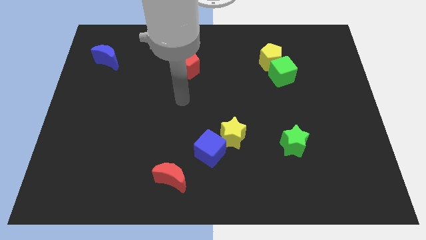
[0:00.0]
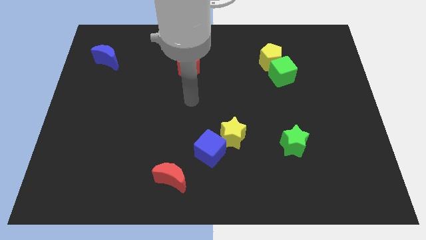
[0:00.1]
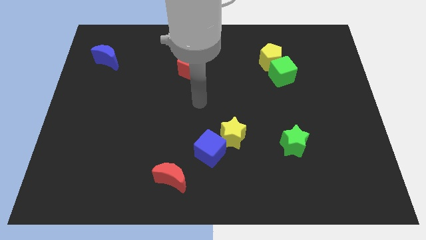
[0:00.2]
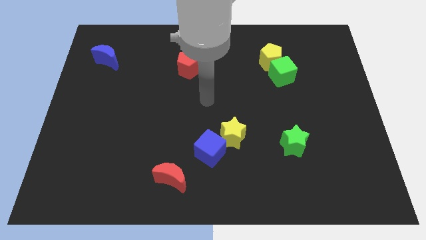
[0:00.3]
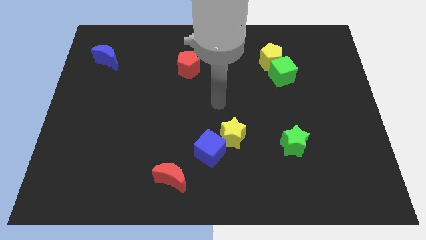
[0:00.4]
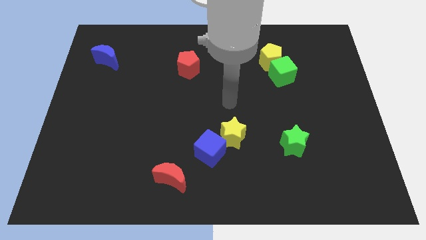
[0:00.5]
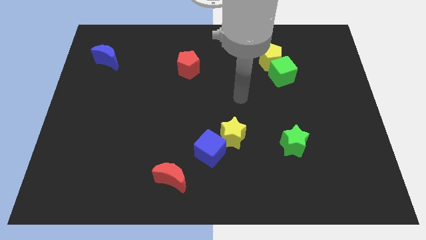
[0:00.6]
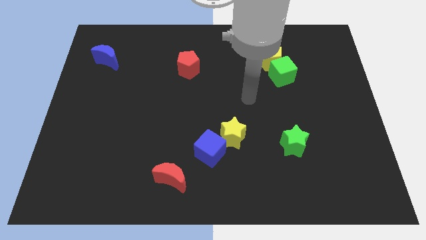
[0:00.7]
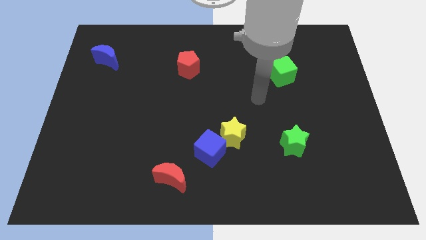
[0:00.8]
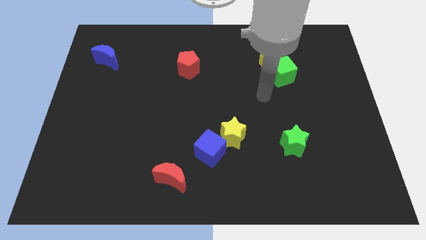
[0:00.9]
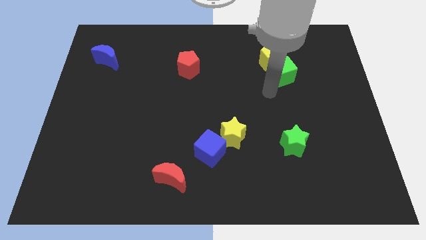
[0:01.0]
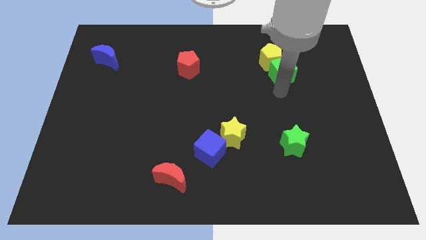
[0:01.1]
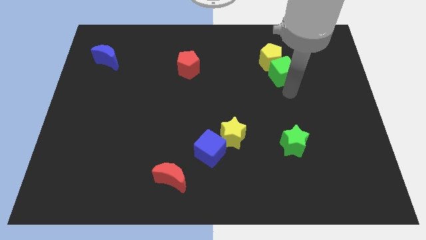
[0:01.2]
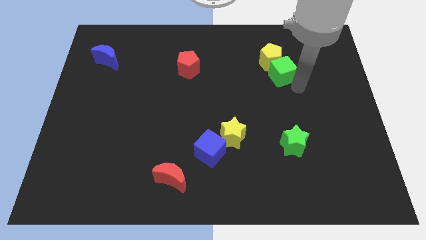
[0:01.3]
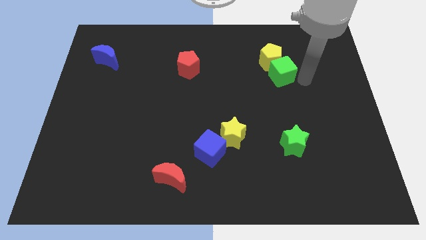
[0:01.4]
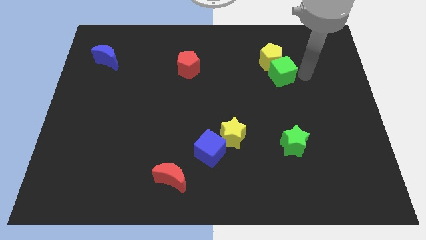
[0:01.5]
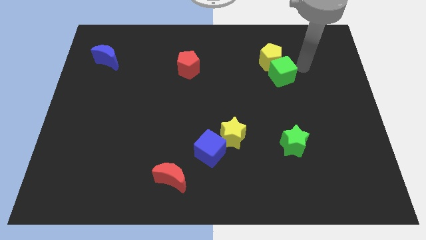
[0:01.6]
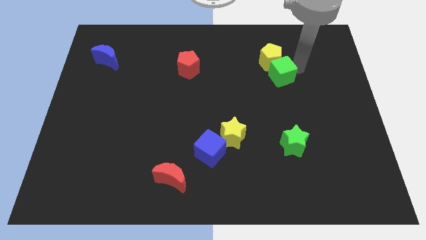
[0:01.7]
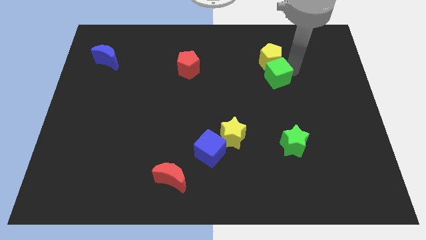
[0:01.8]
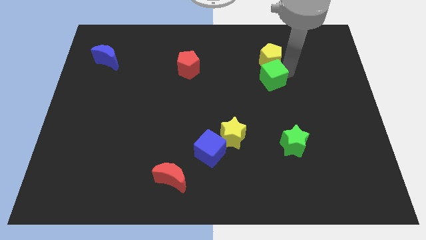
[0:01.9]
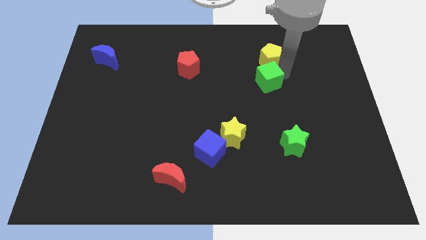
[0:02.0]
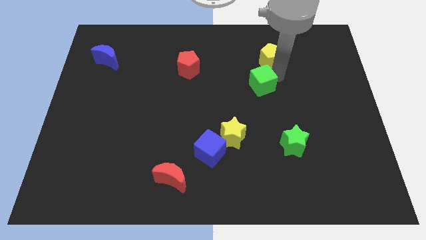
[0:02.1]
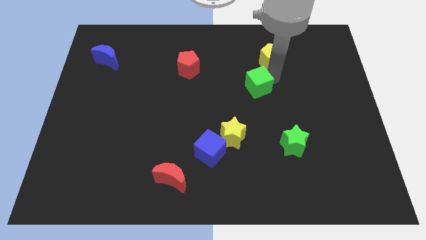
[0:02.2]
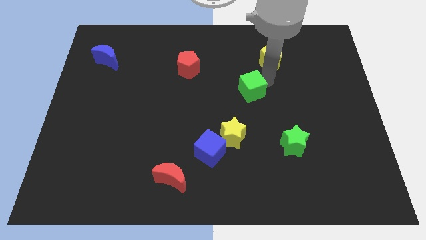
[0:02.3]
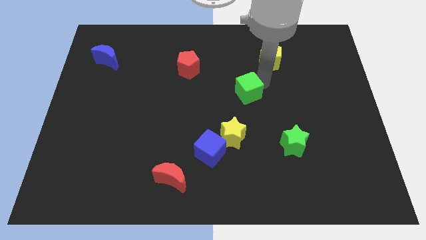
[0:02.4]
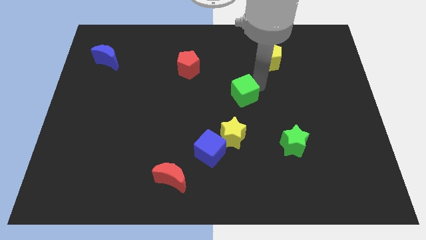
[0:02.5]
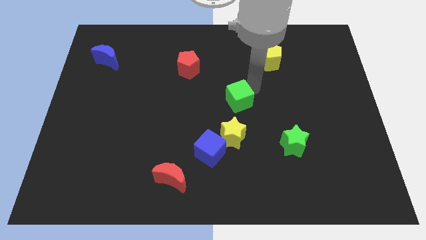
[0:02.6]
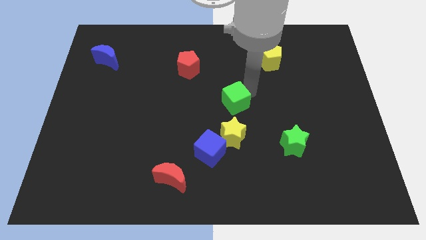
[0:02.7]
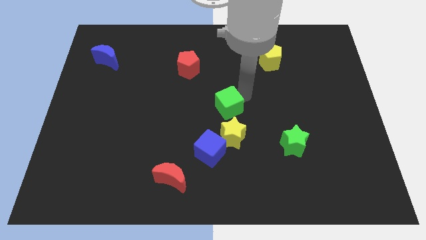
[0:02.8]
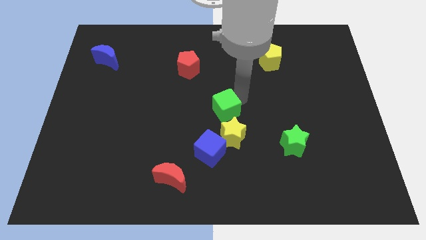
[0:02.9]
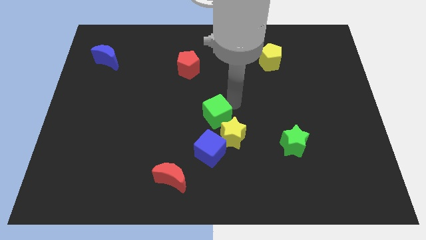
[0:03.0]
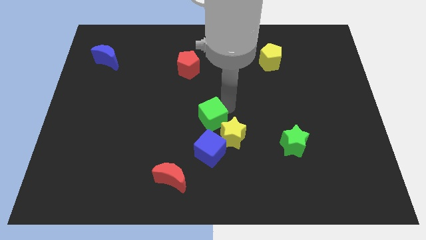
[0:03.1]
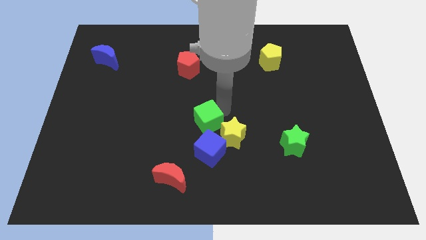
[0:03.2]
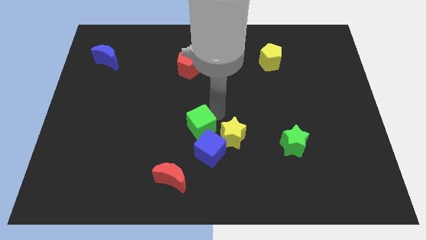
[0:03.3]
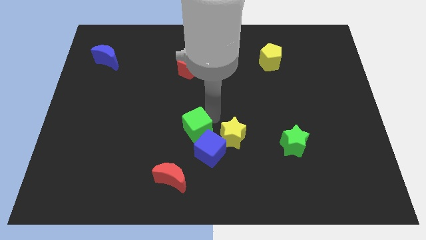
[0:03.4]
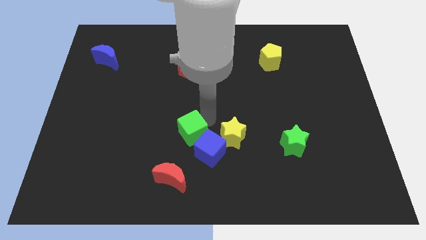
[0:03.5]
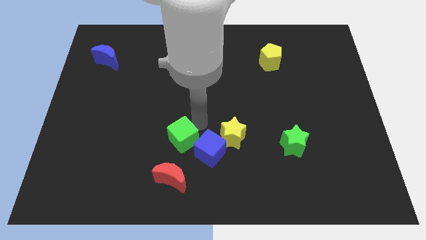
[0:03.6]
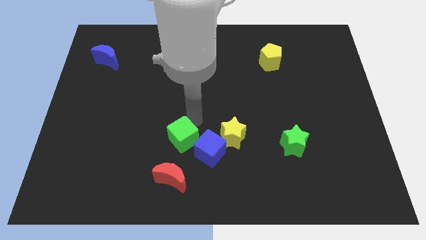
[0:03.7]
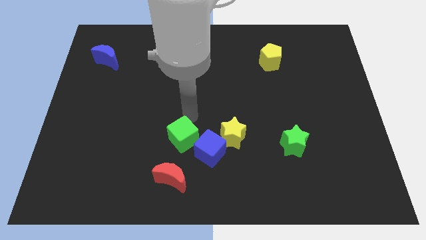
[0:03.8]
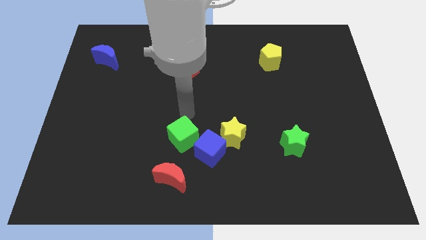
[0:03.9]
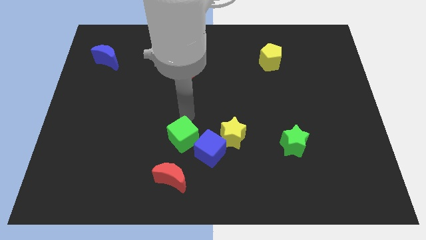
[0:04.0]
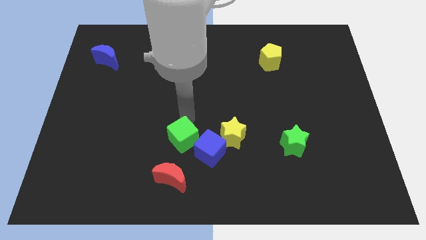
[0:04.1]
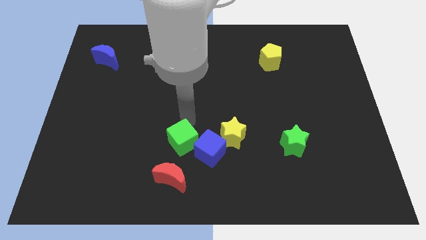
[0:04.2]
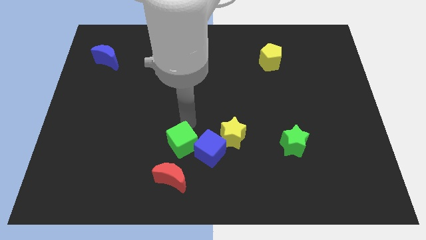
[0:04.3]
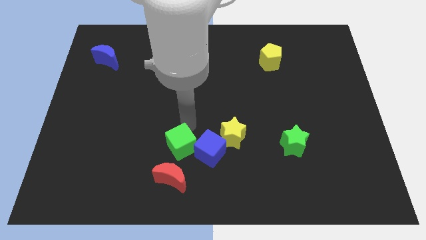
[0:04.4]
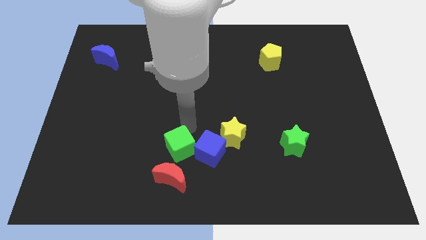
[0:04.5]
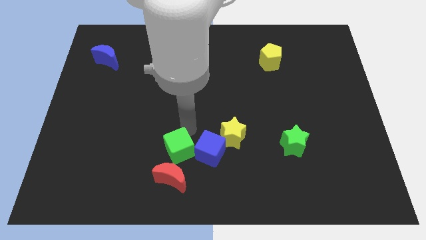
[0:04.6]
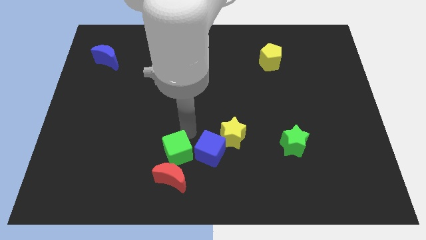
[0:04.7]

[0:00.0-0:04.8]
slide the green cube to the red moon

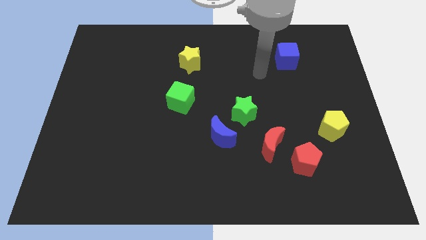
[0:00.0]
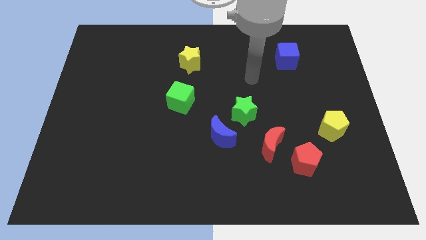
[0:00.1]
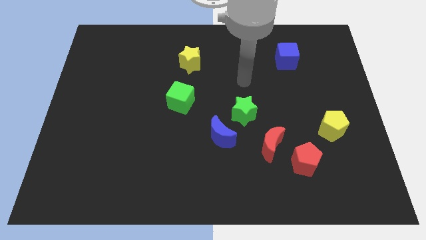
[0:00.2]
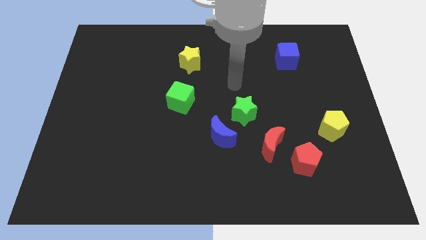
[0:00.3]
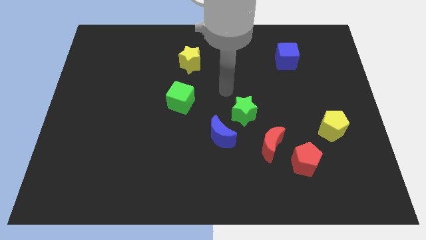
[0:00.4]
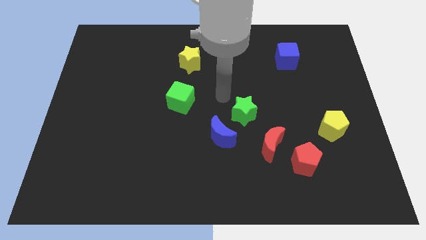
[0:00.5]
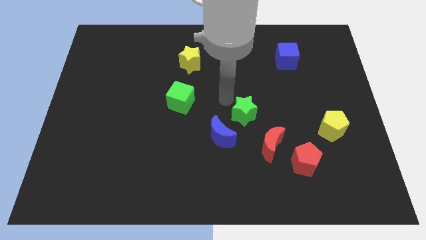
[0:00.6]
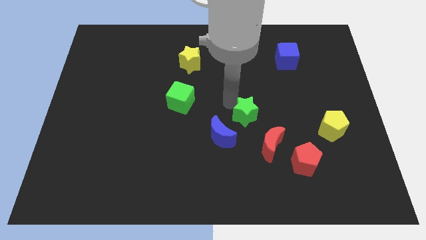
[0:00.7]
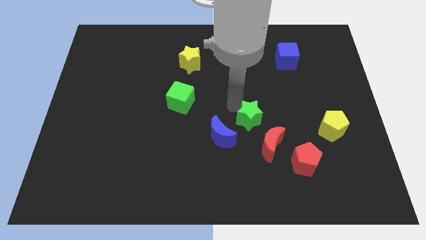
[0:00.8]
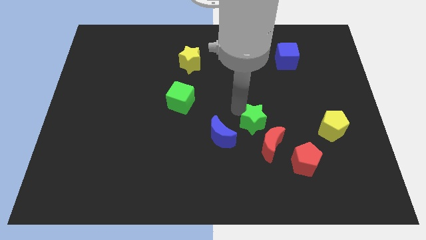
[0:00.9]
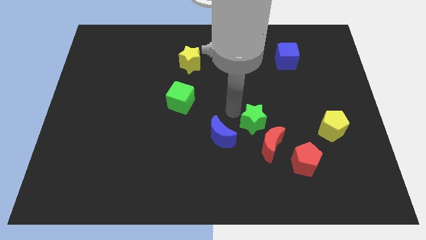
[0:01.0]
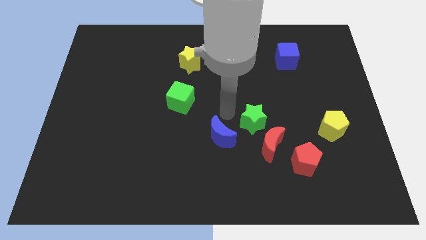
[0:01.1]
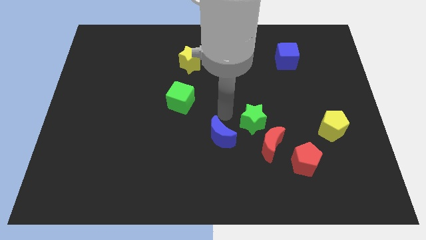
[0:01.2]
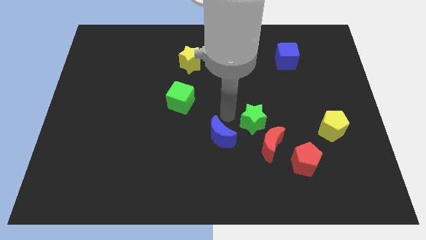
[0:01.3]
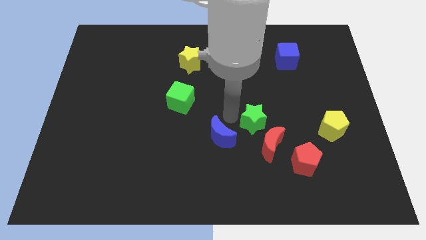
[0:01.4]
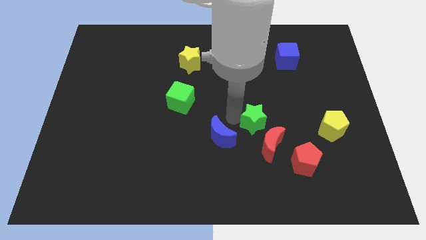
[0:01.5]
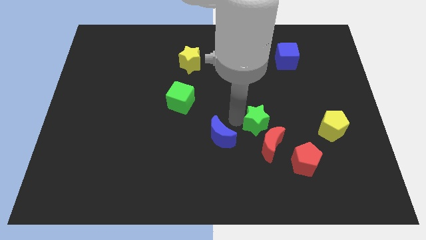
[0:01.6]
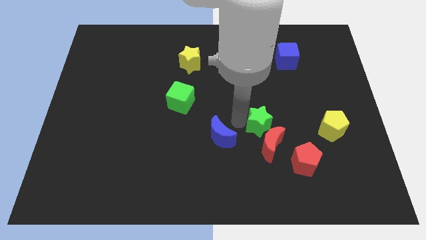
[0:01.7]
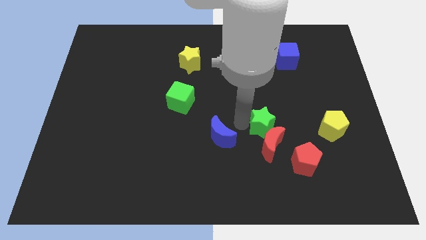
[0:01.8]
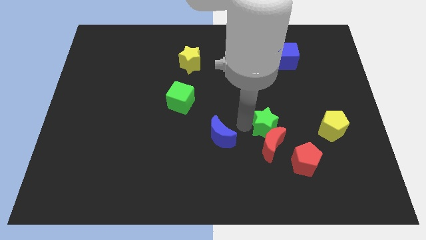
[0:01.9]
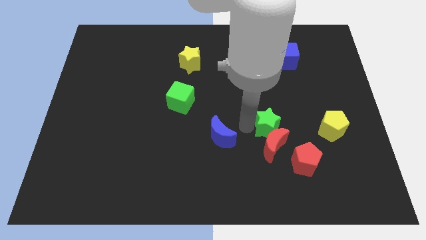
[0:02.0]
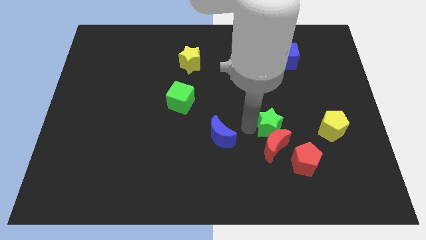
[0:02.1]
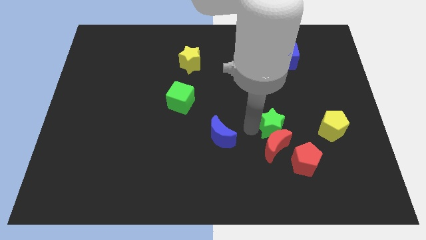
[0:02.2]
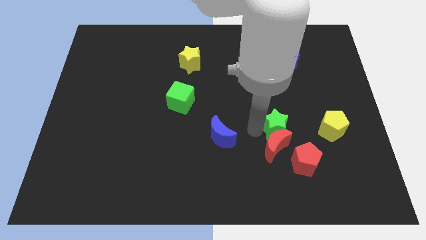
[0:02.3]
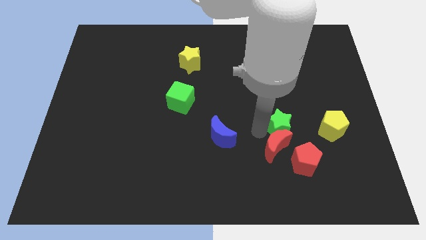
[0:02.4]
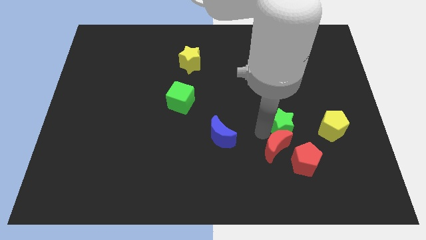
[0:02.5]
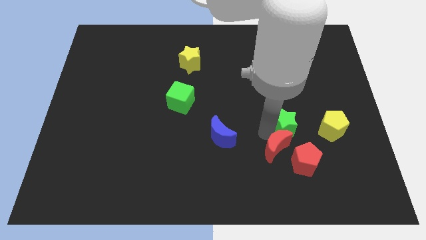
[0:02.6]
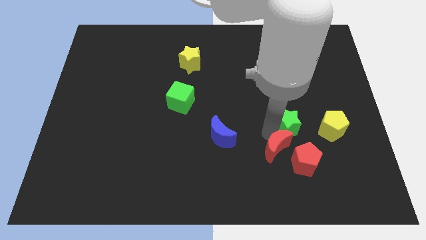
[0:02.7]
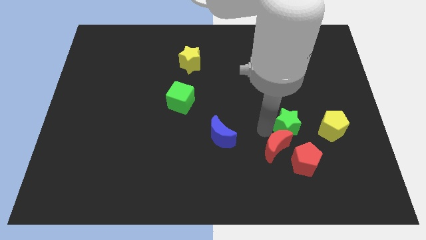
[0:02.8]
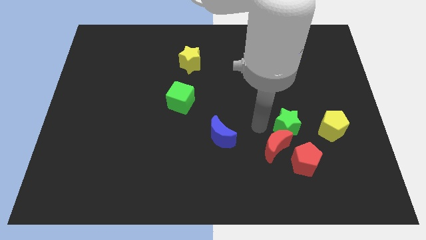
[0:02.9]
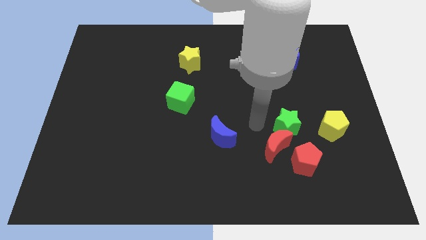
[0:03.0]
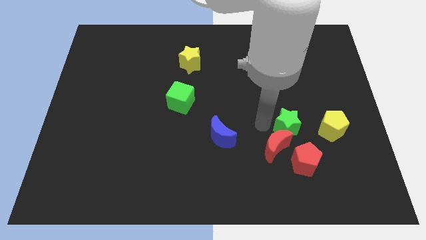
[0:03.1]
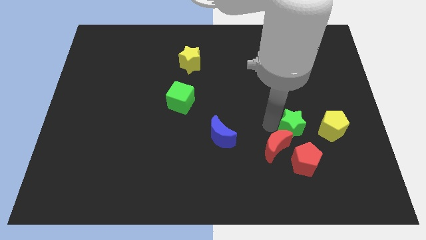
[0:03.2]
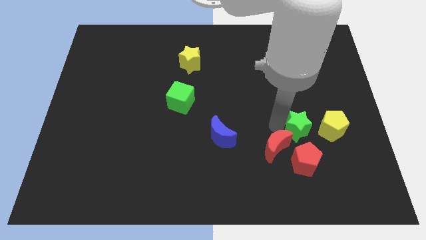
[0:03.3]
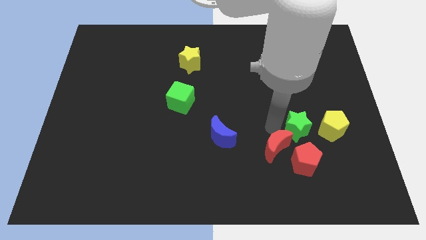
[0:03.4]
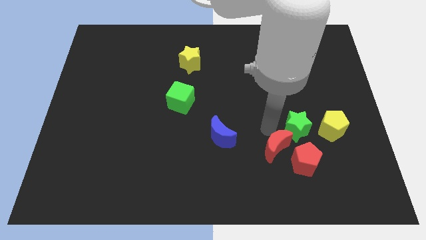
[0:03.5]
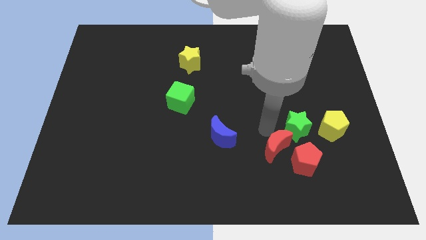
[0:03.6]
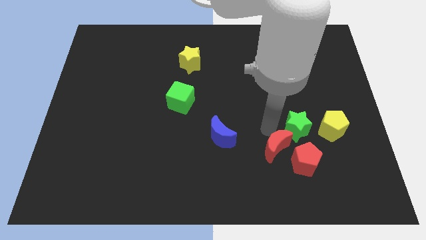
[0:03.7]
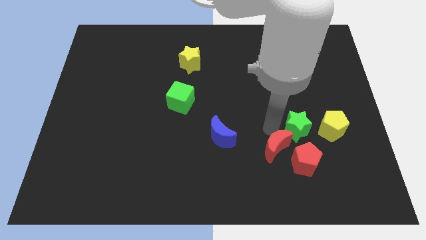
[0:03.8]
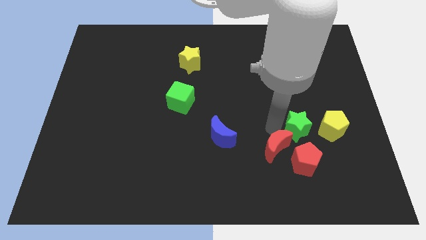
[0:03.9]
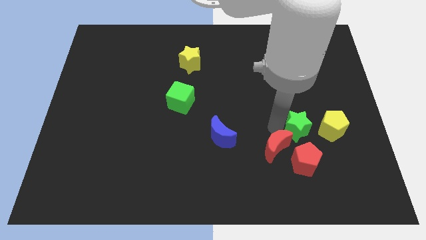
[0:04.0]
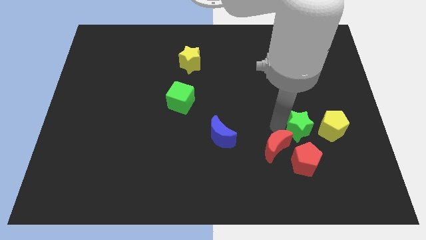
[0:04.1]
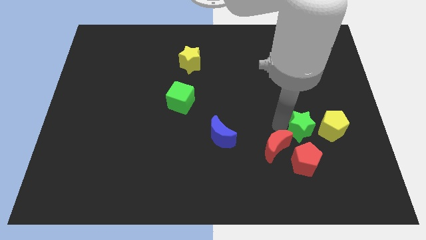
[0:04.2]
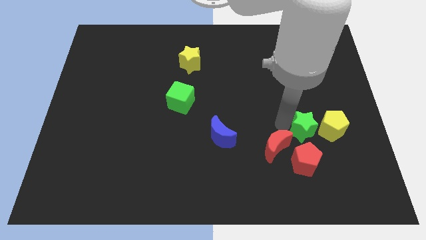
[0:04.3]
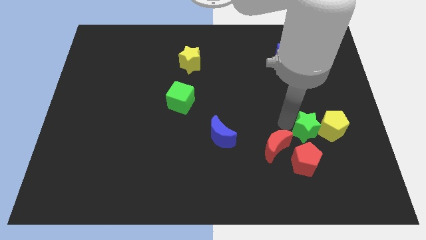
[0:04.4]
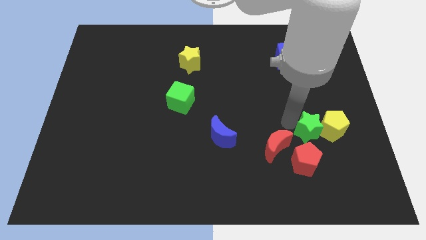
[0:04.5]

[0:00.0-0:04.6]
put the green star close to the yellow pentagon
